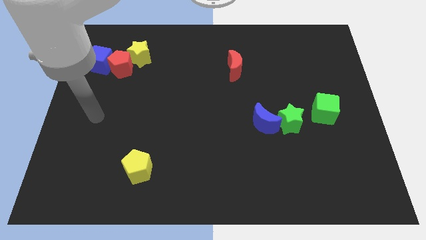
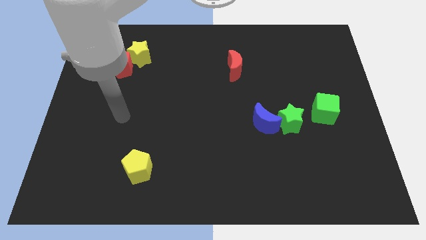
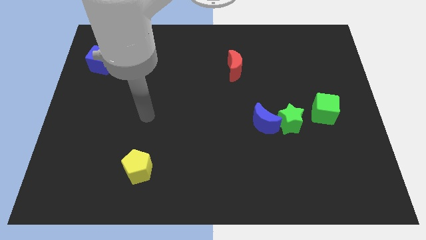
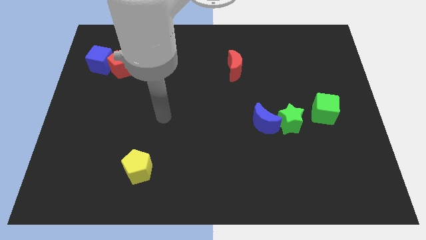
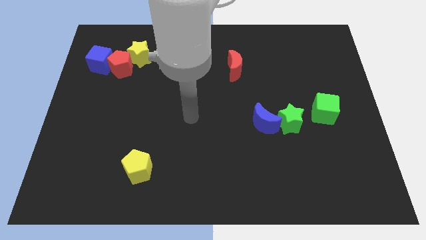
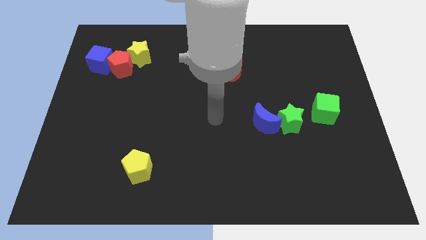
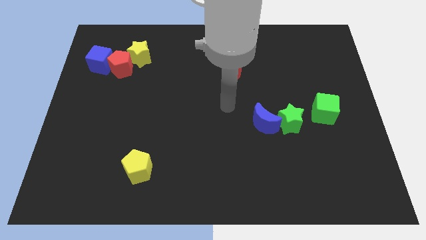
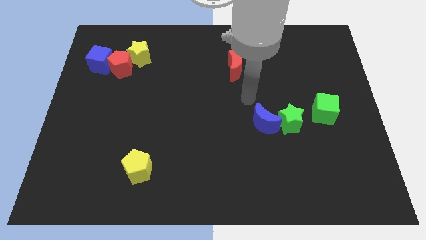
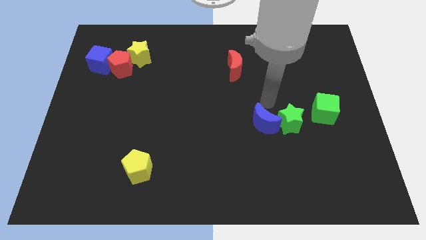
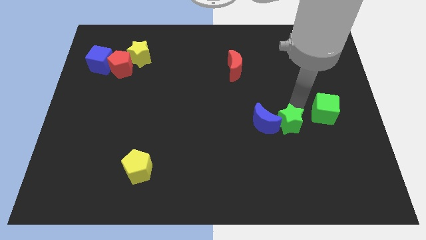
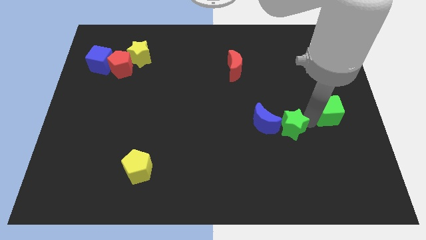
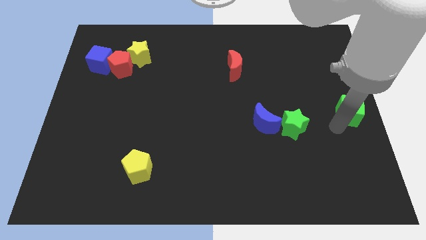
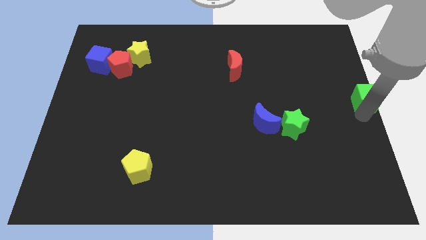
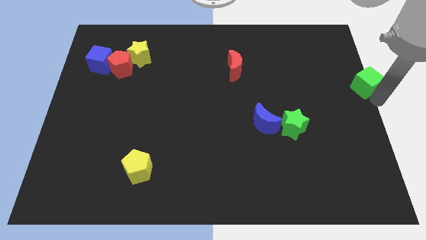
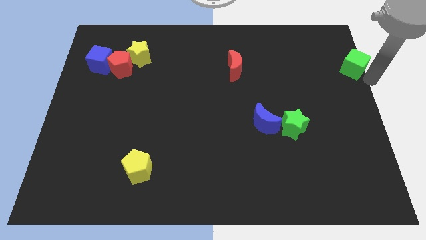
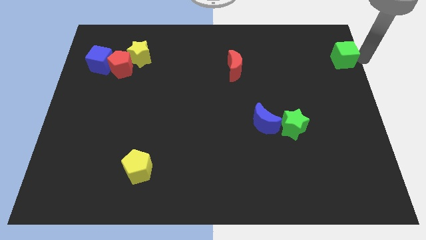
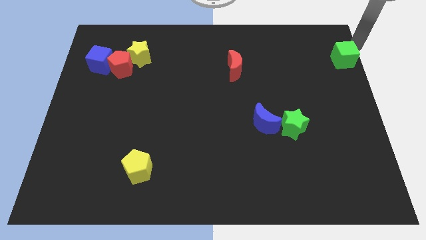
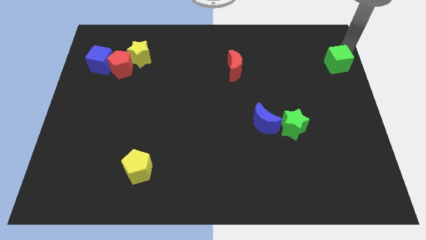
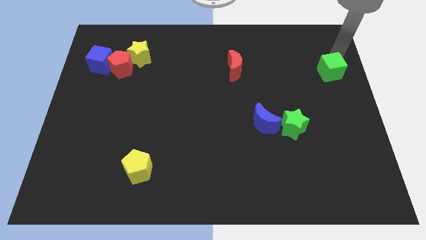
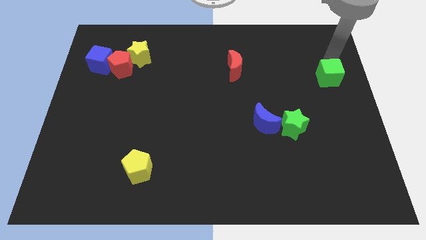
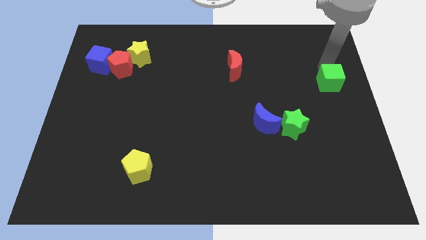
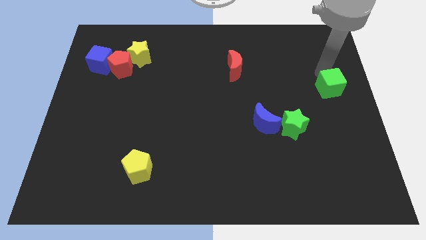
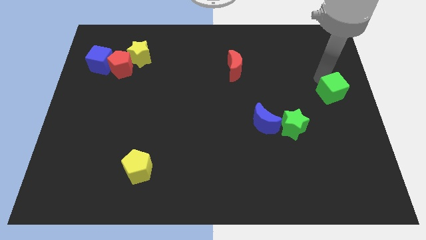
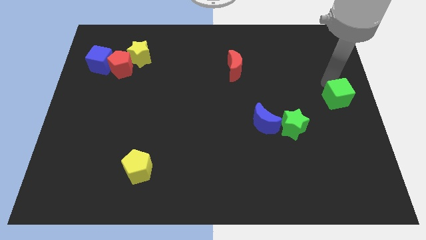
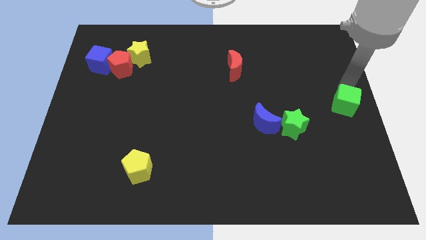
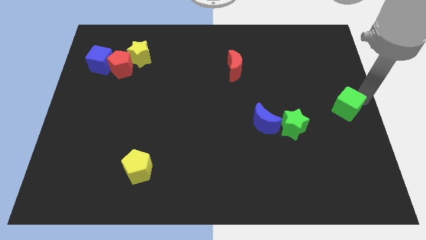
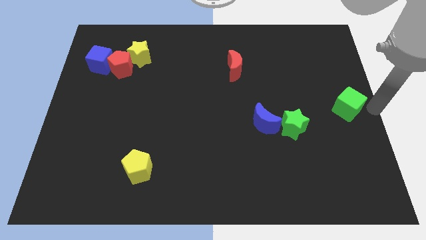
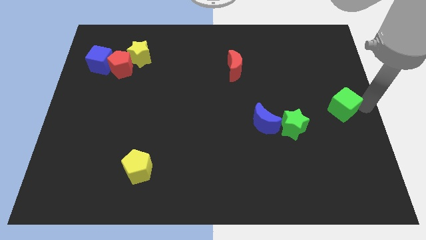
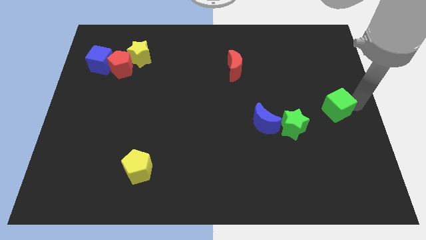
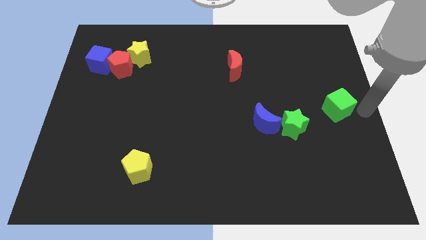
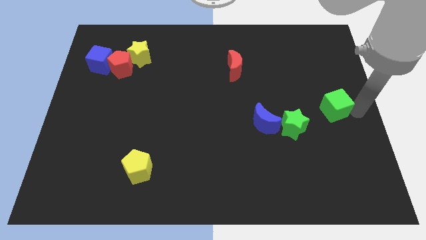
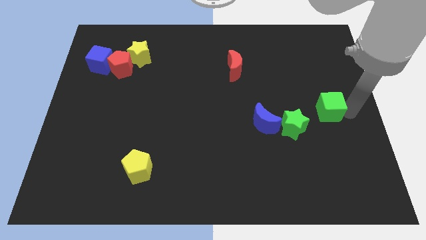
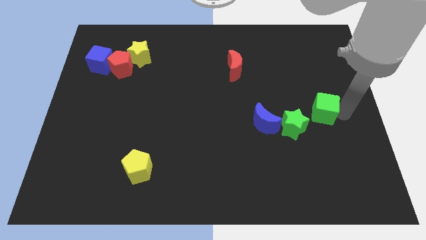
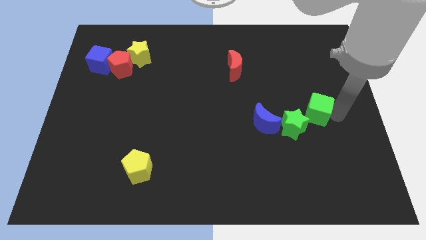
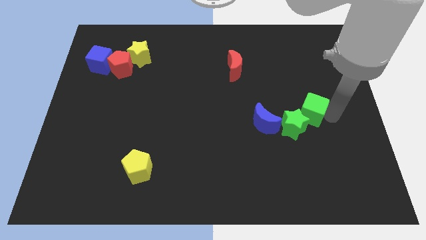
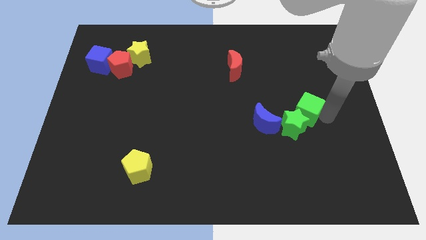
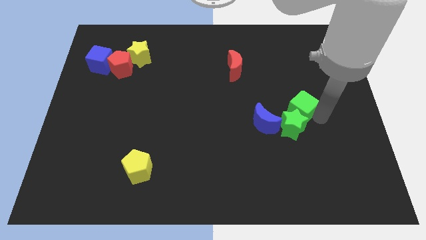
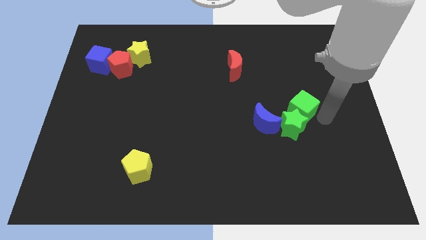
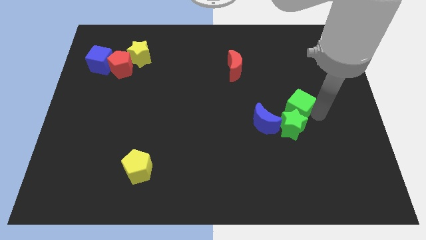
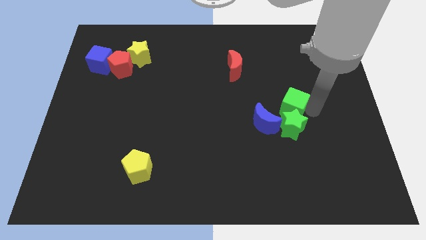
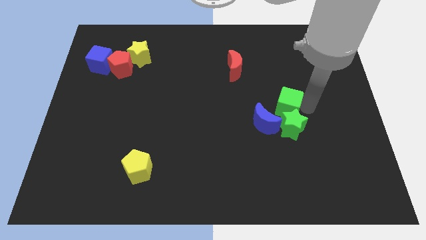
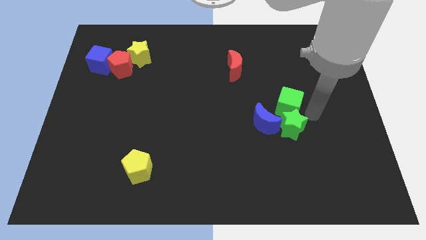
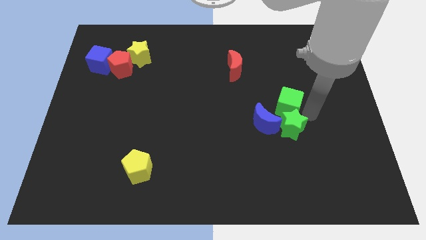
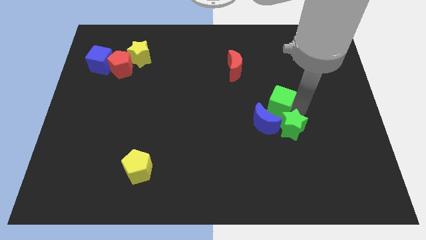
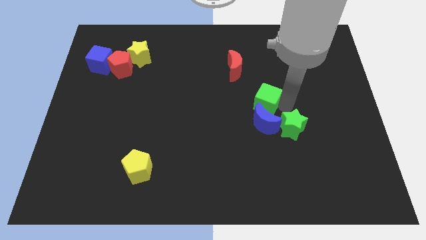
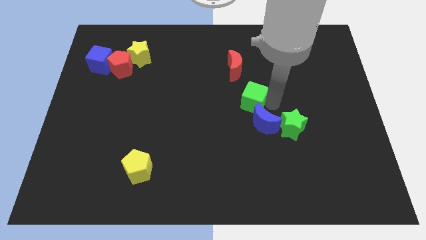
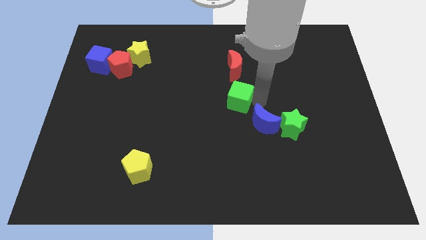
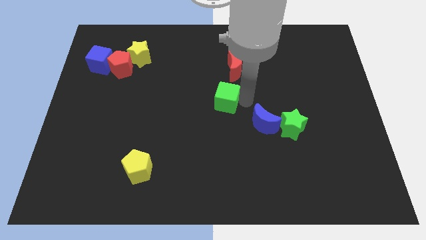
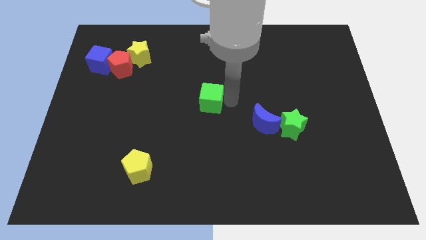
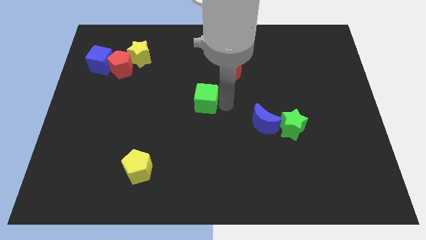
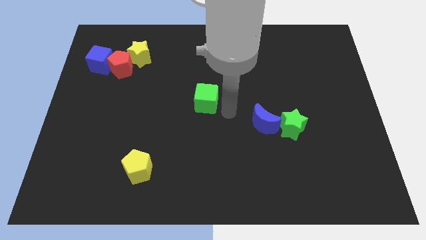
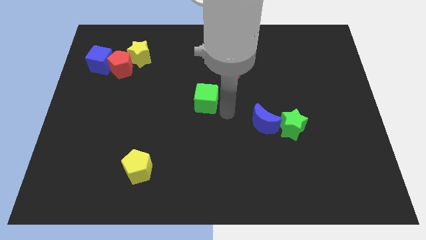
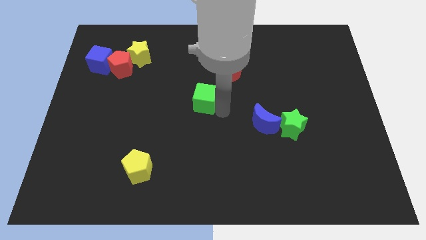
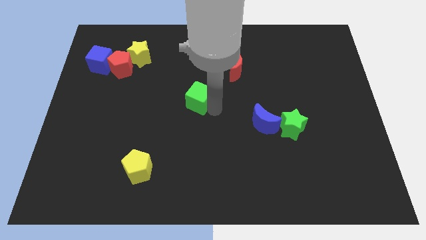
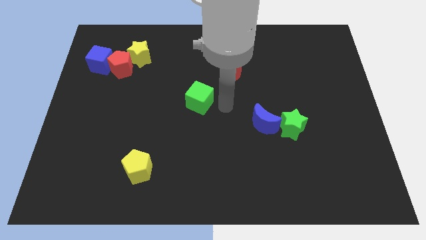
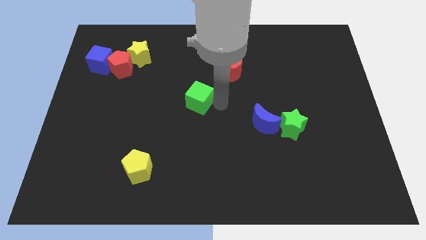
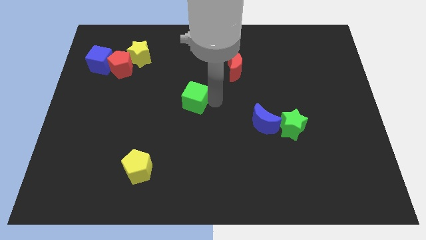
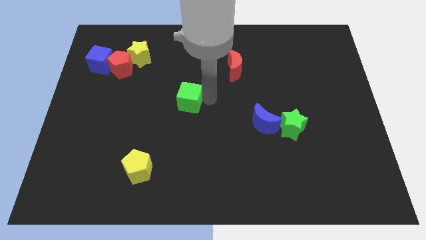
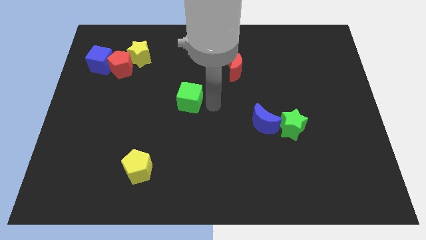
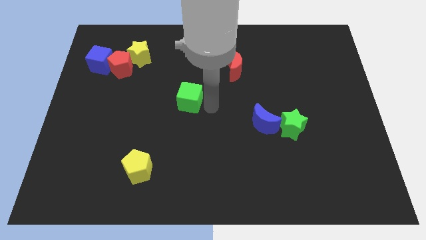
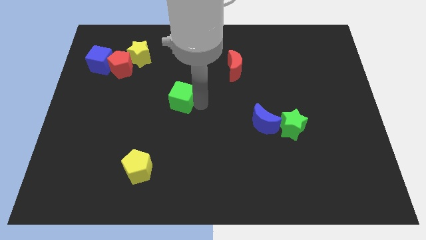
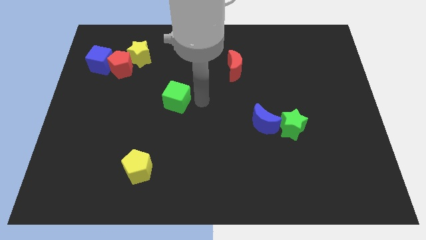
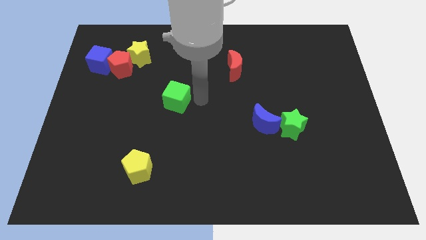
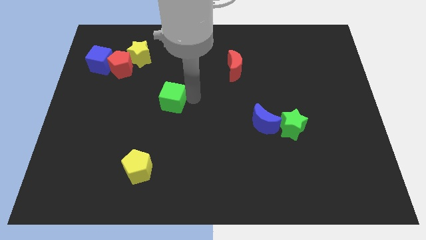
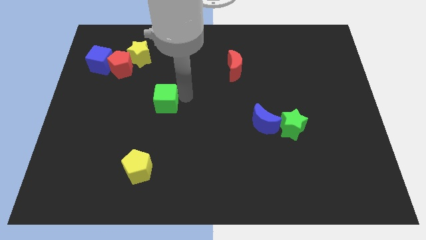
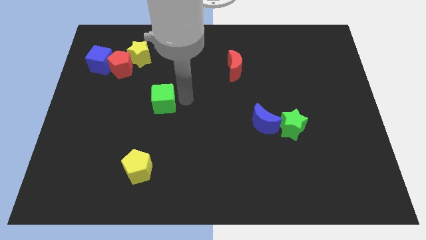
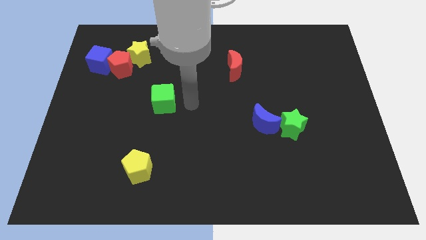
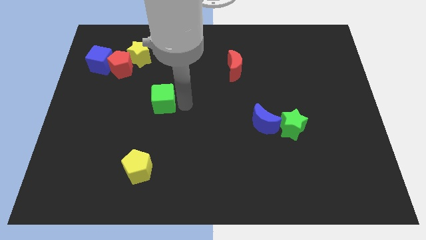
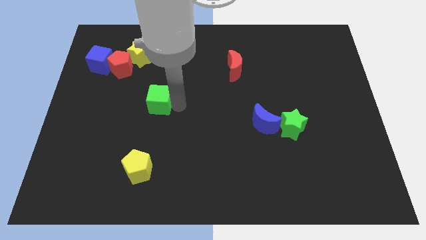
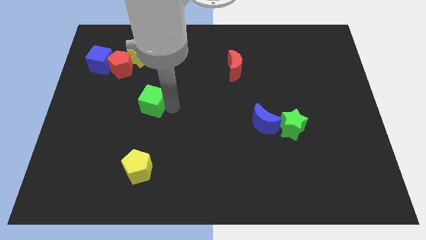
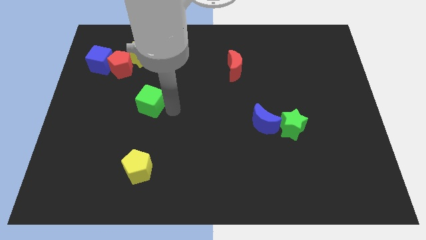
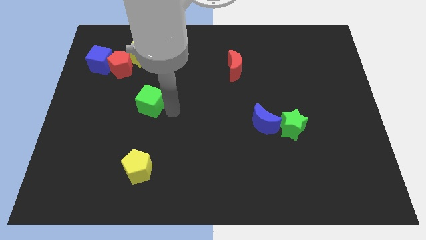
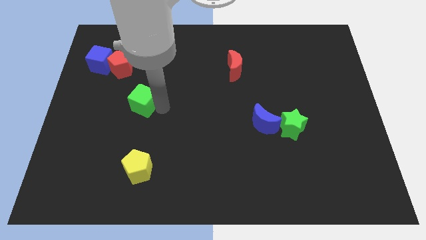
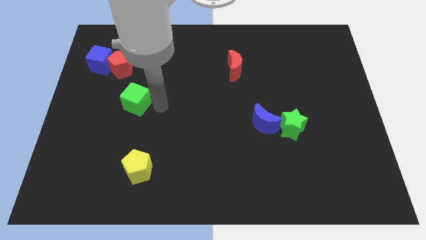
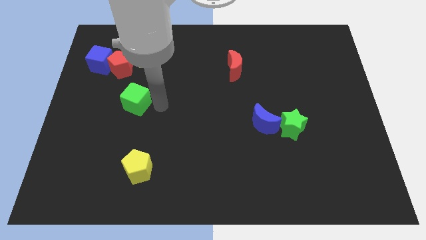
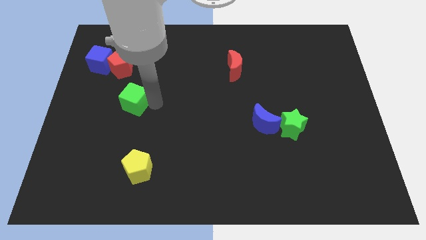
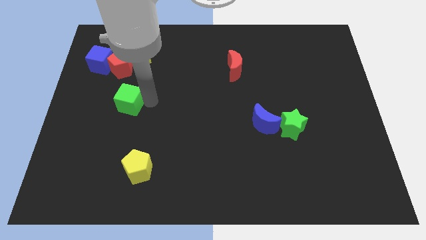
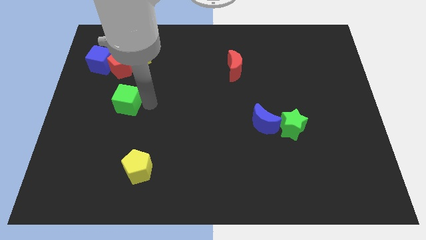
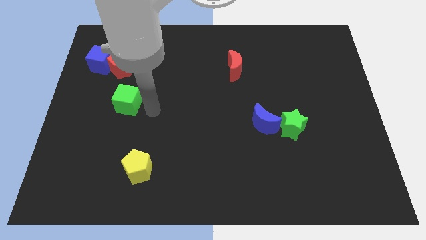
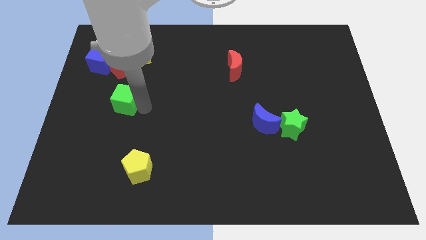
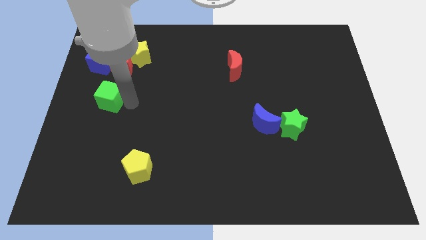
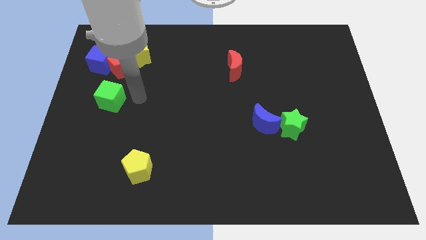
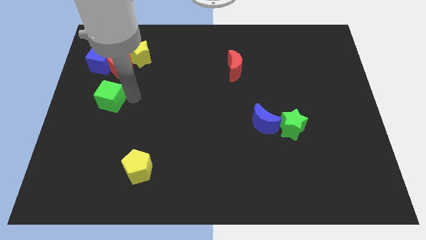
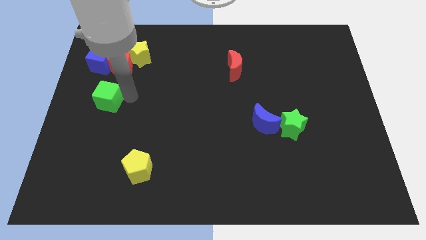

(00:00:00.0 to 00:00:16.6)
move the green cube to the center left
